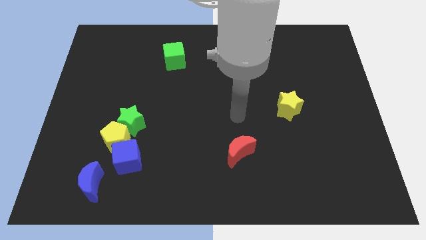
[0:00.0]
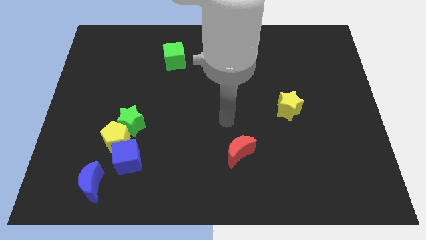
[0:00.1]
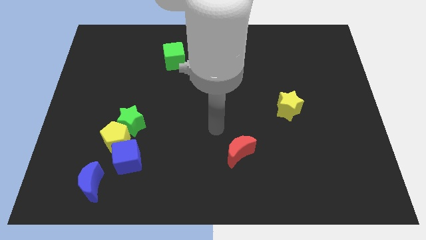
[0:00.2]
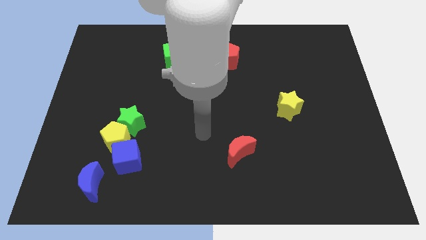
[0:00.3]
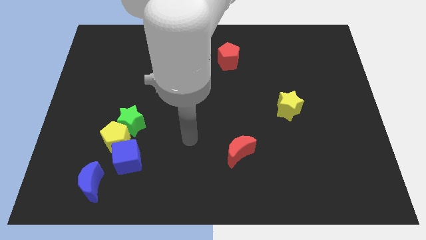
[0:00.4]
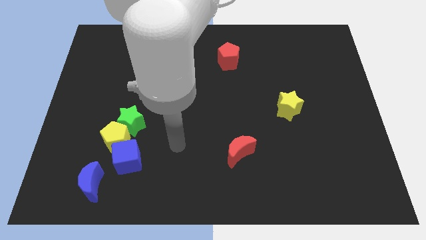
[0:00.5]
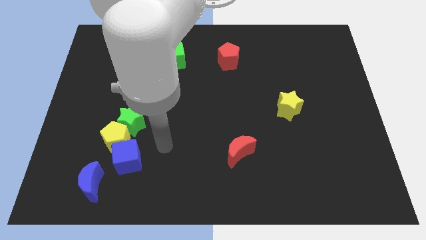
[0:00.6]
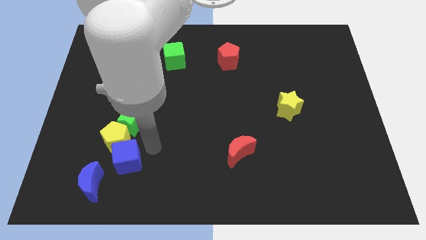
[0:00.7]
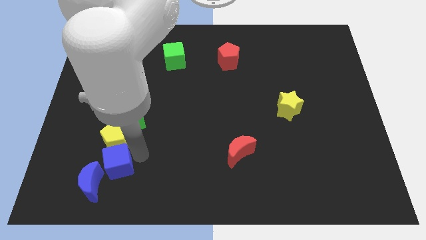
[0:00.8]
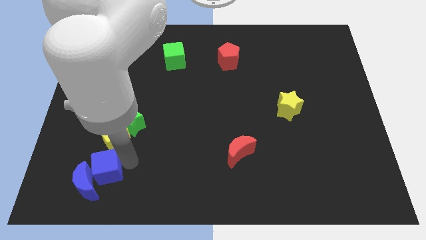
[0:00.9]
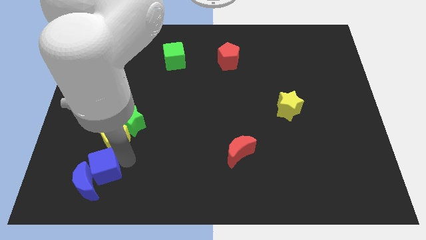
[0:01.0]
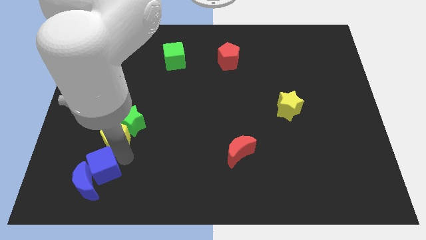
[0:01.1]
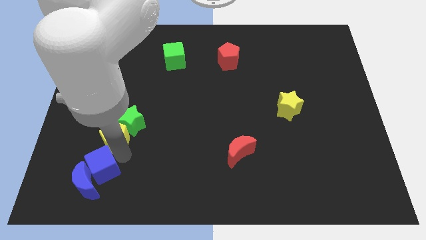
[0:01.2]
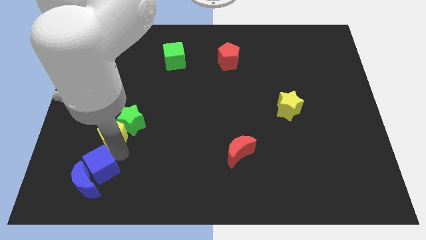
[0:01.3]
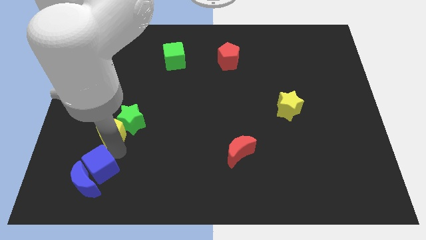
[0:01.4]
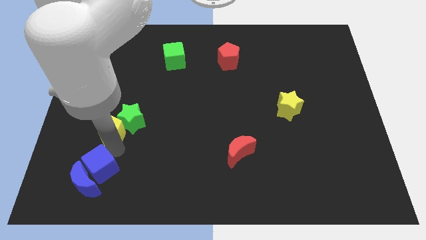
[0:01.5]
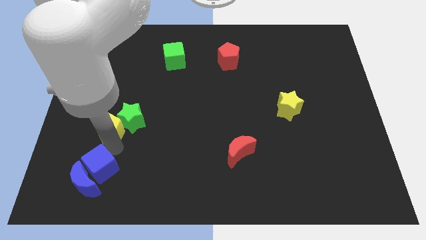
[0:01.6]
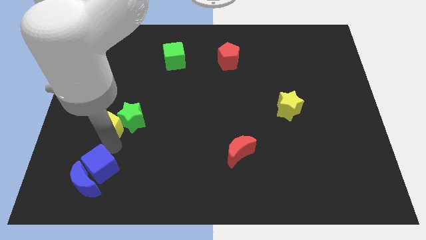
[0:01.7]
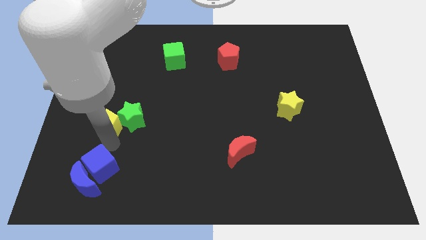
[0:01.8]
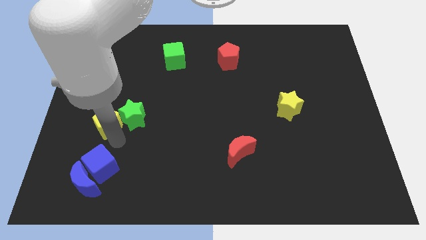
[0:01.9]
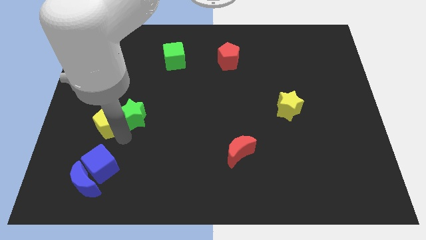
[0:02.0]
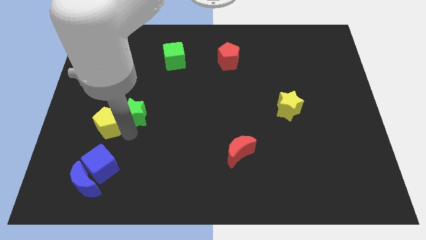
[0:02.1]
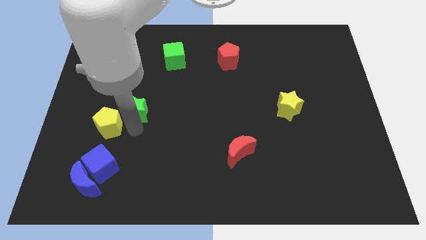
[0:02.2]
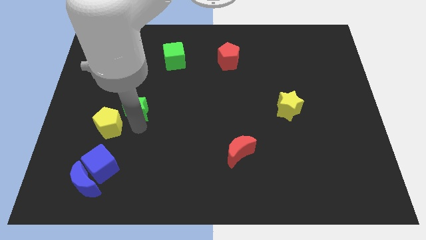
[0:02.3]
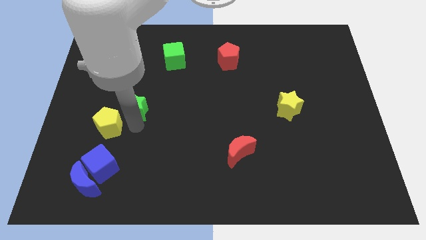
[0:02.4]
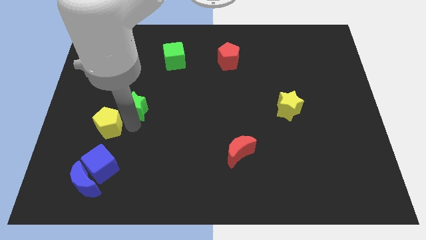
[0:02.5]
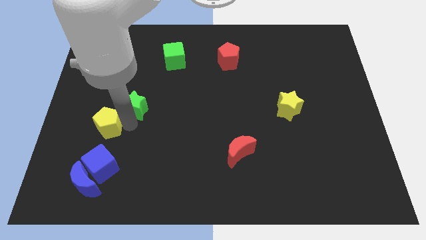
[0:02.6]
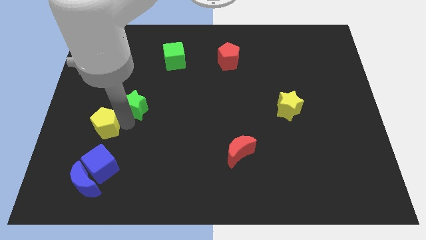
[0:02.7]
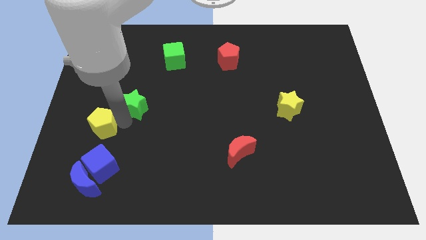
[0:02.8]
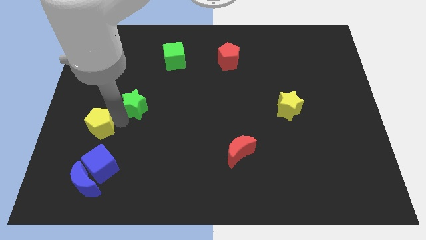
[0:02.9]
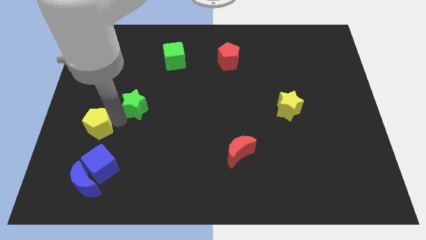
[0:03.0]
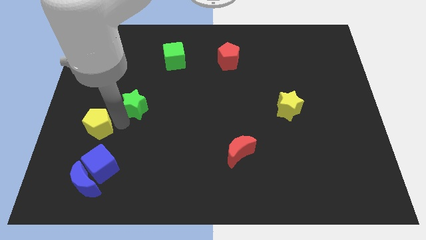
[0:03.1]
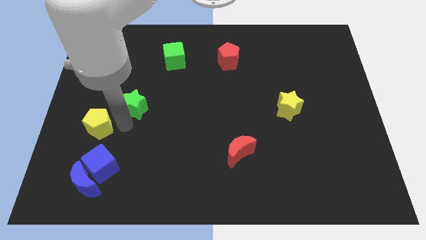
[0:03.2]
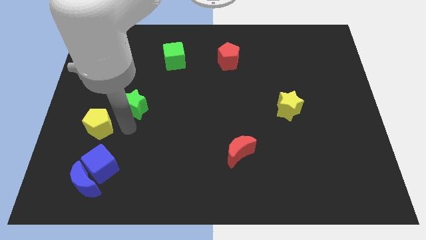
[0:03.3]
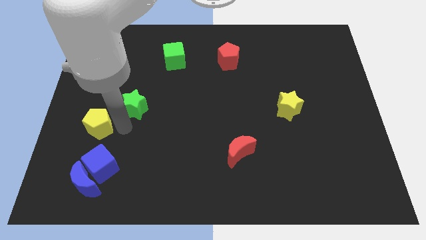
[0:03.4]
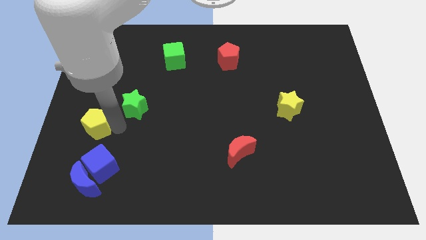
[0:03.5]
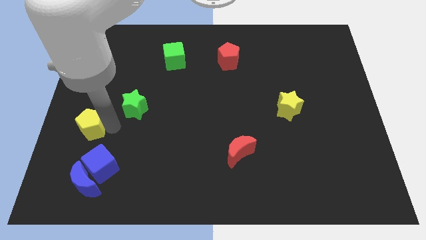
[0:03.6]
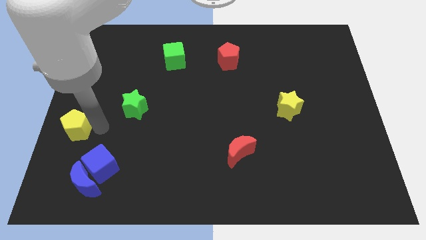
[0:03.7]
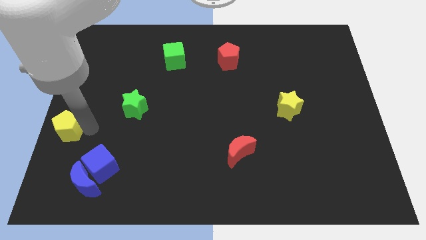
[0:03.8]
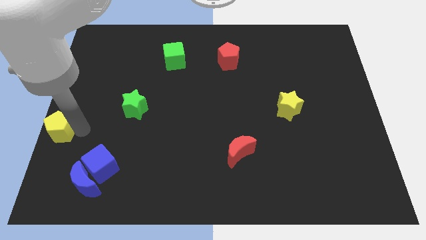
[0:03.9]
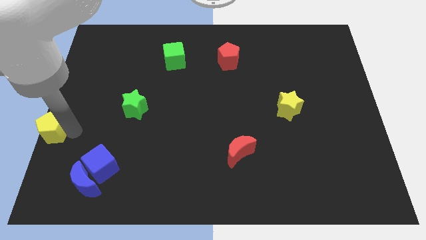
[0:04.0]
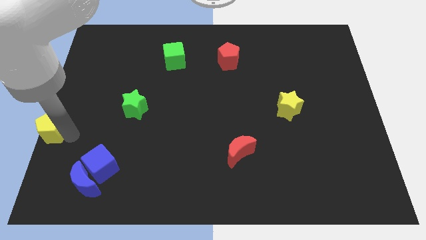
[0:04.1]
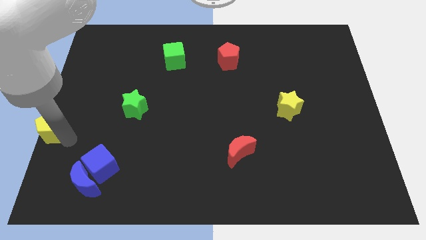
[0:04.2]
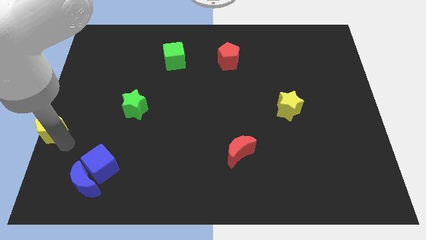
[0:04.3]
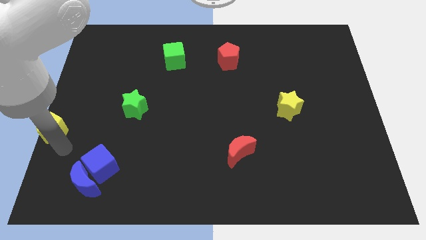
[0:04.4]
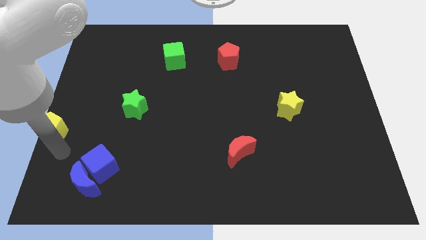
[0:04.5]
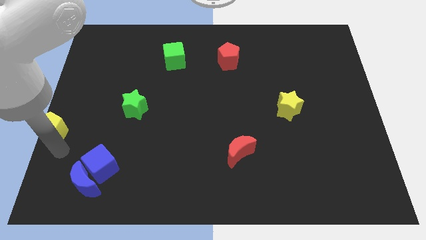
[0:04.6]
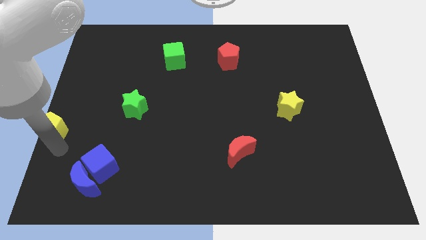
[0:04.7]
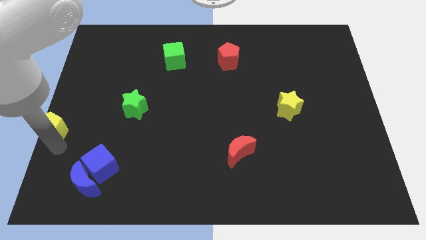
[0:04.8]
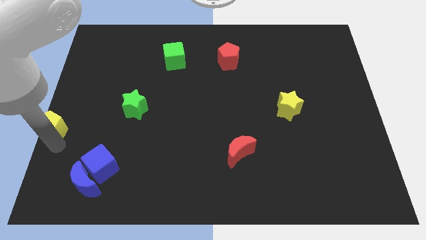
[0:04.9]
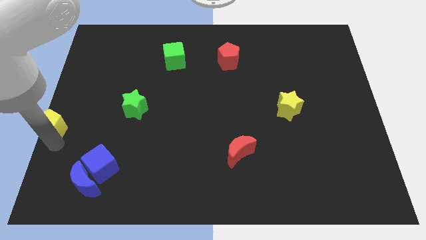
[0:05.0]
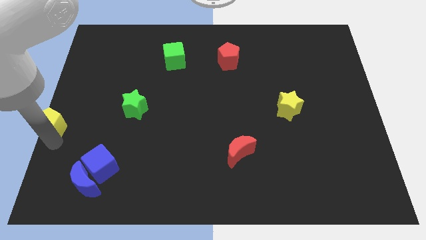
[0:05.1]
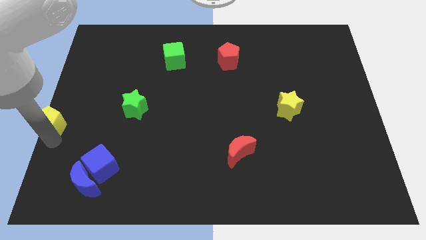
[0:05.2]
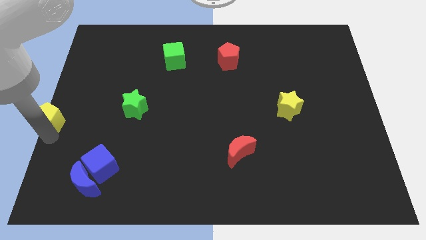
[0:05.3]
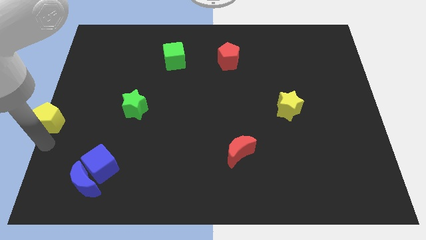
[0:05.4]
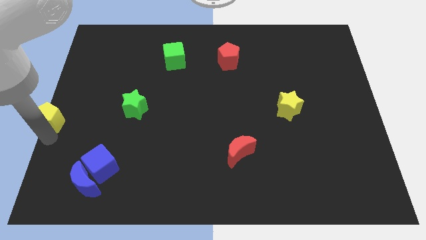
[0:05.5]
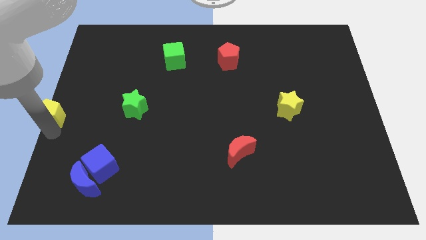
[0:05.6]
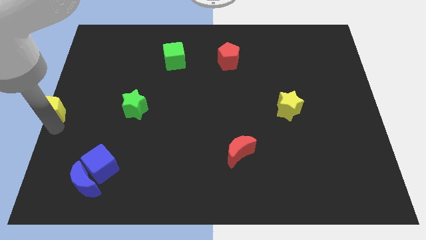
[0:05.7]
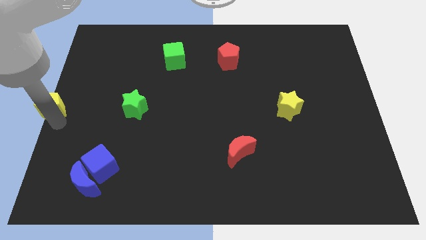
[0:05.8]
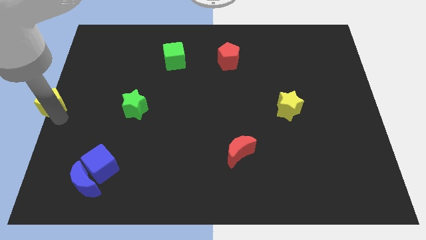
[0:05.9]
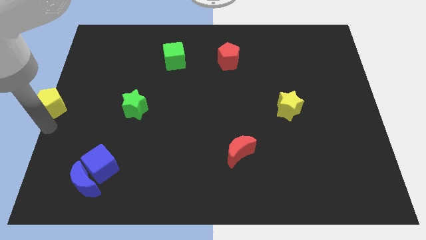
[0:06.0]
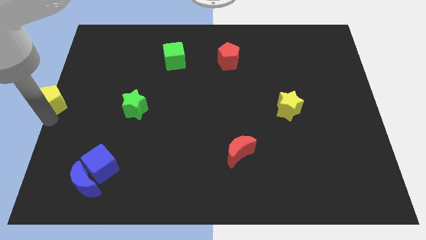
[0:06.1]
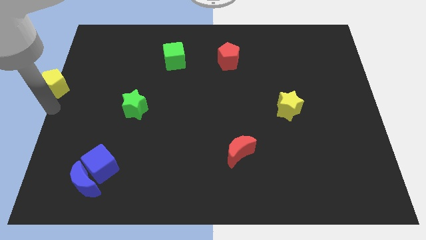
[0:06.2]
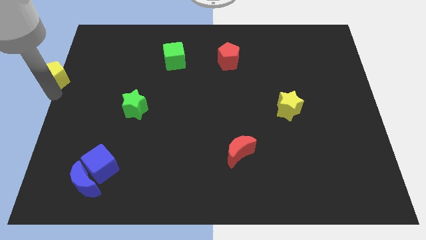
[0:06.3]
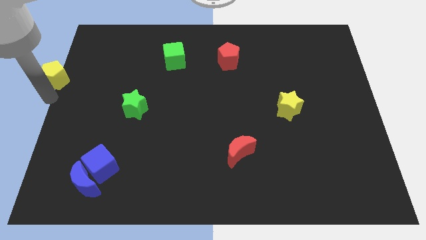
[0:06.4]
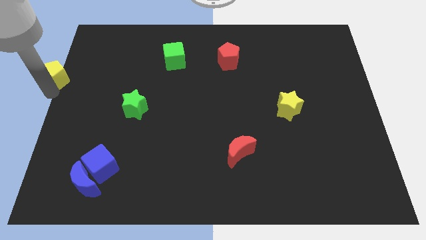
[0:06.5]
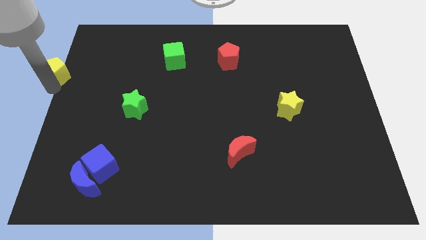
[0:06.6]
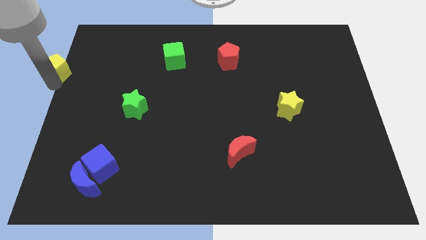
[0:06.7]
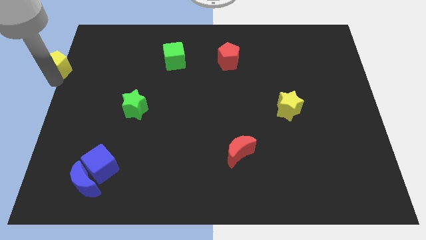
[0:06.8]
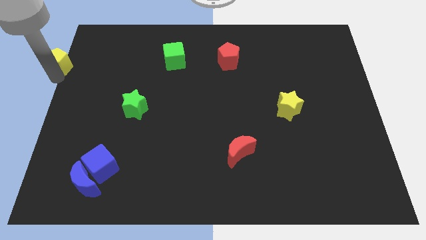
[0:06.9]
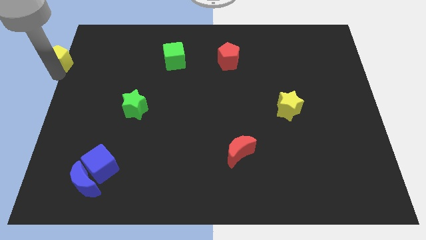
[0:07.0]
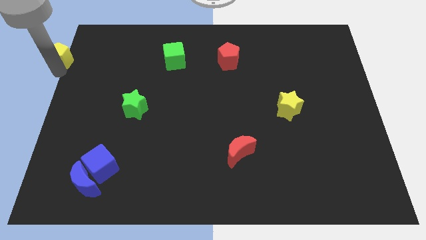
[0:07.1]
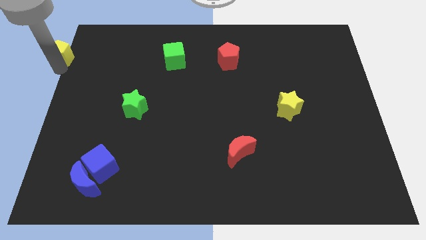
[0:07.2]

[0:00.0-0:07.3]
push the yellow pentagon to the top left
